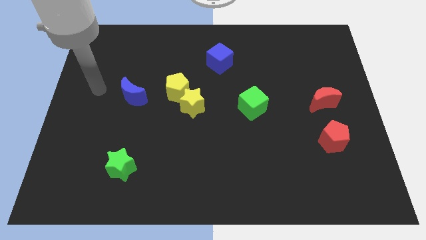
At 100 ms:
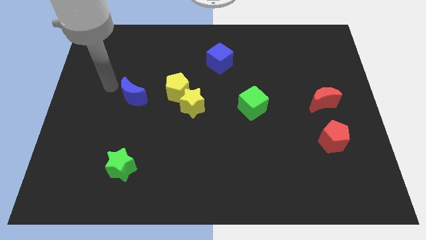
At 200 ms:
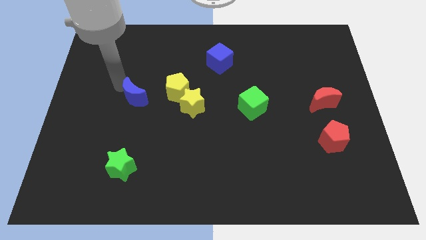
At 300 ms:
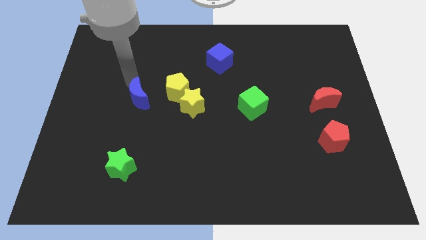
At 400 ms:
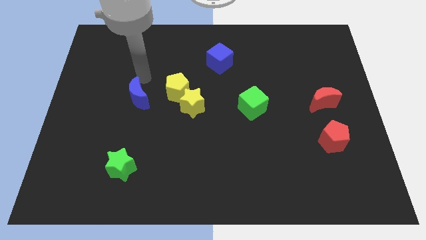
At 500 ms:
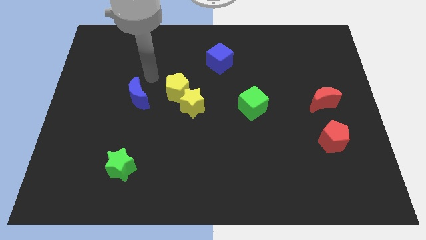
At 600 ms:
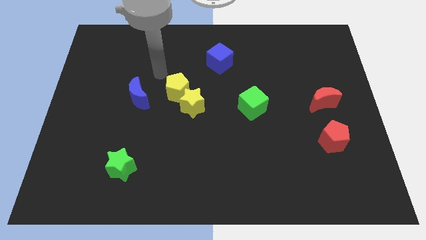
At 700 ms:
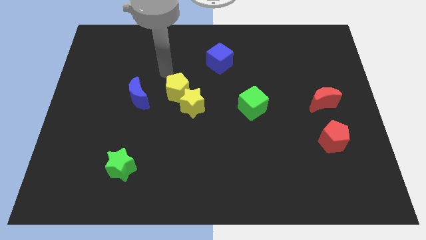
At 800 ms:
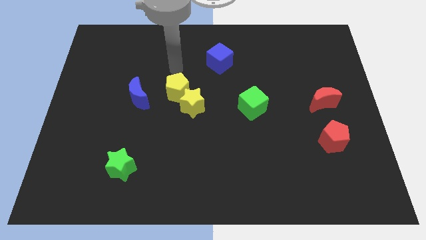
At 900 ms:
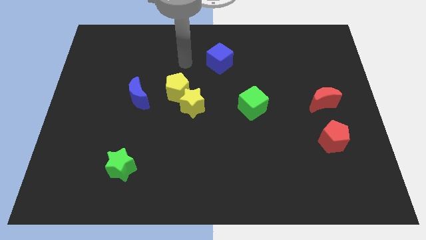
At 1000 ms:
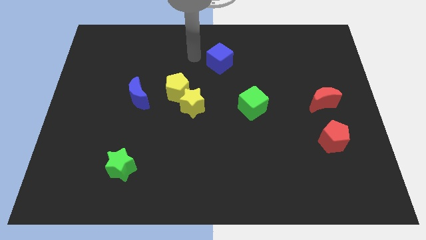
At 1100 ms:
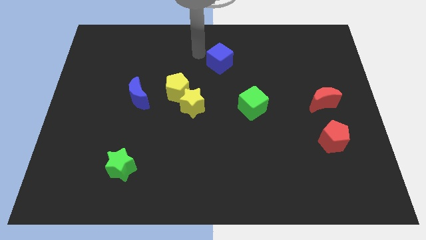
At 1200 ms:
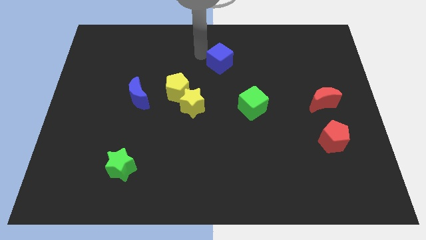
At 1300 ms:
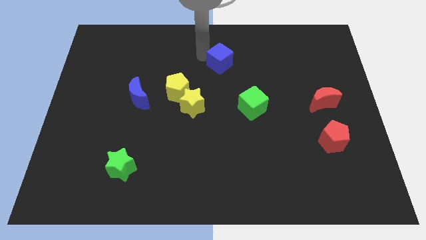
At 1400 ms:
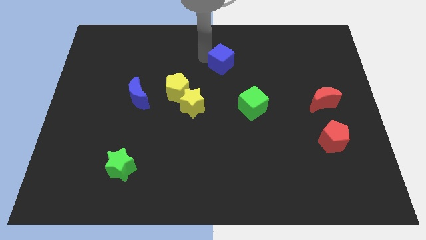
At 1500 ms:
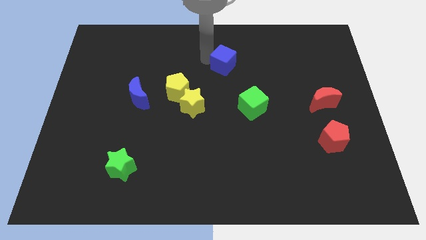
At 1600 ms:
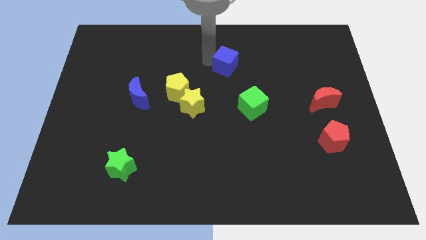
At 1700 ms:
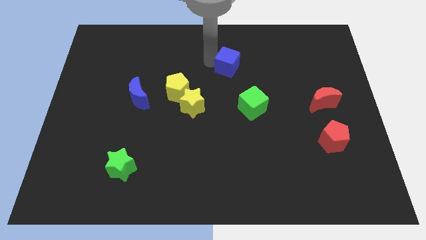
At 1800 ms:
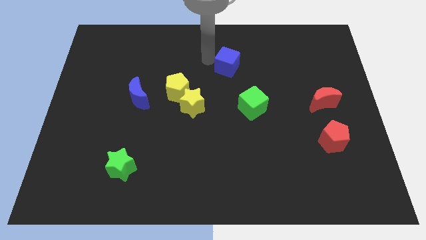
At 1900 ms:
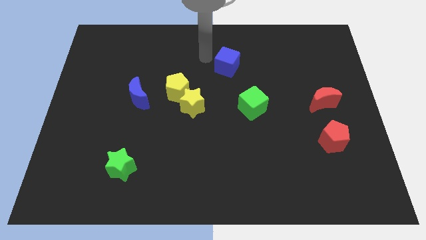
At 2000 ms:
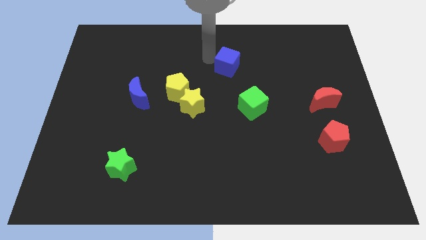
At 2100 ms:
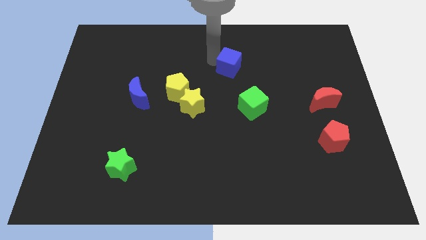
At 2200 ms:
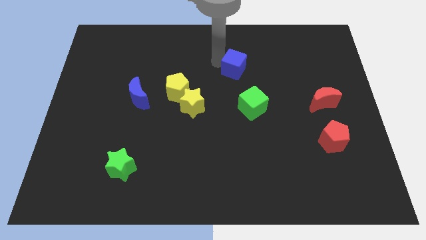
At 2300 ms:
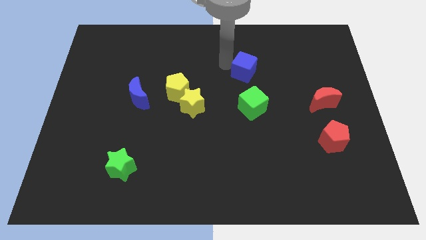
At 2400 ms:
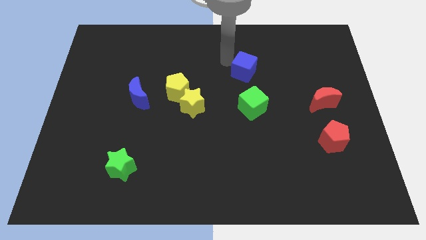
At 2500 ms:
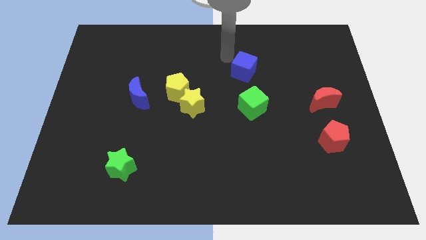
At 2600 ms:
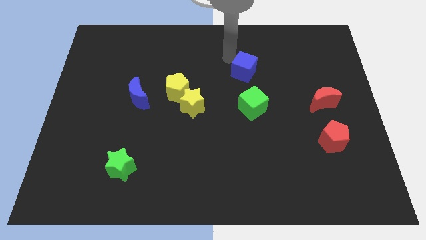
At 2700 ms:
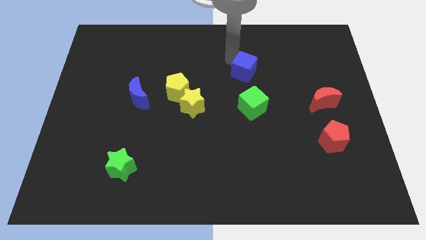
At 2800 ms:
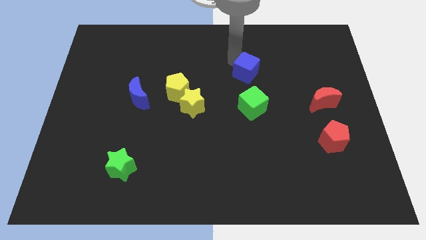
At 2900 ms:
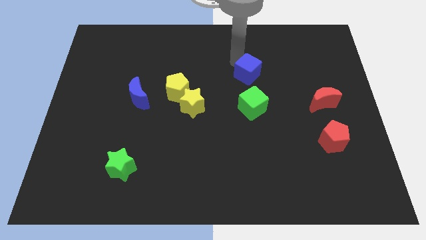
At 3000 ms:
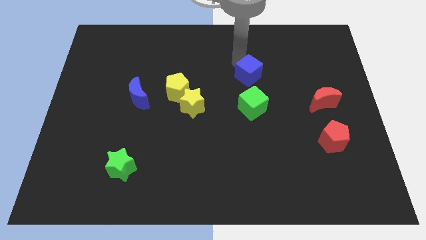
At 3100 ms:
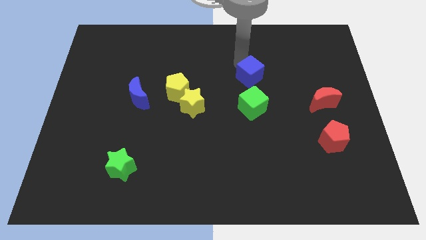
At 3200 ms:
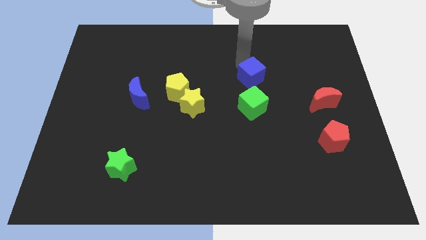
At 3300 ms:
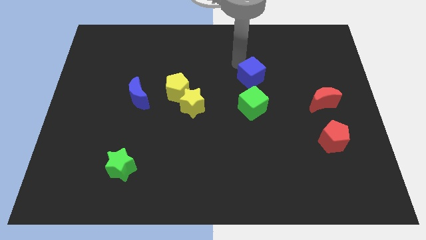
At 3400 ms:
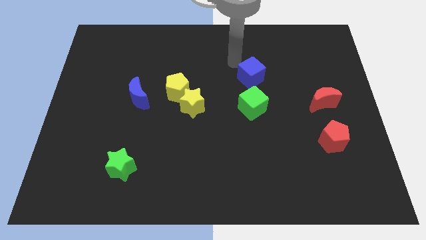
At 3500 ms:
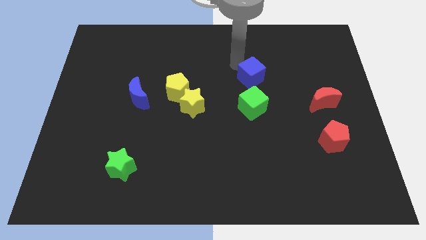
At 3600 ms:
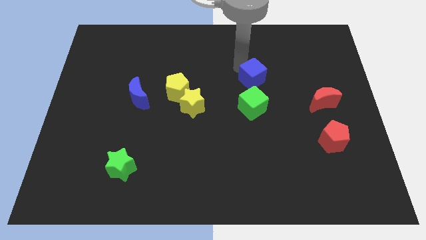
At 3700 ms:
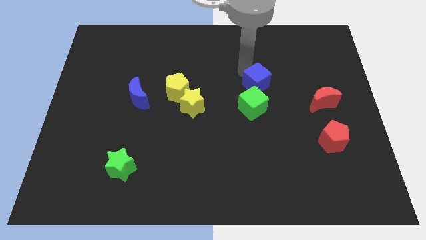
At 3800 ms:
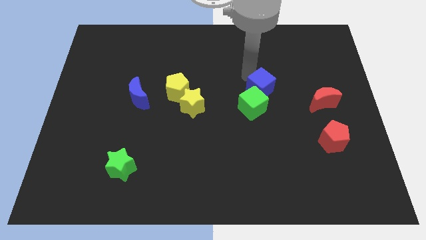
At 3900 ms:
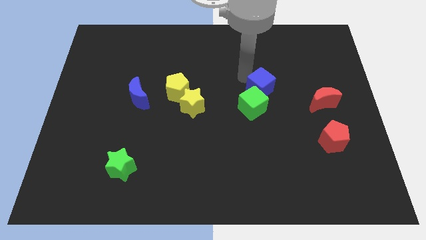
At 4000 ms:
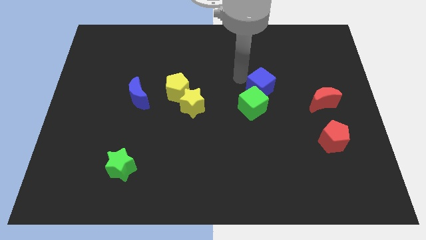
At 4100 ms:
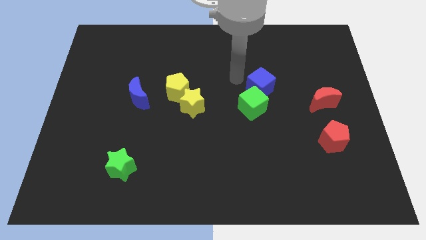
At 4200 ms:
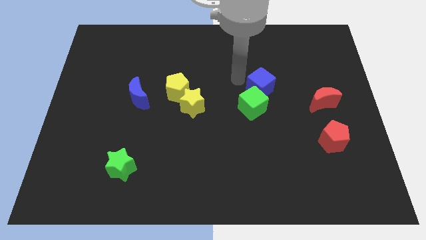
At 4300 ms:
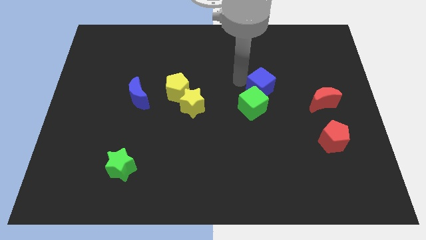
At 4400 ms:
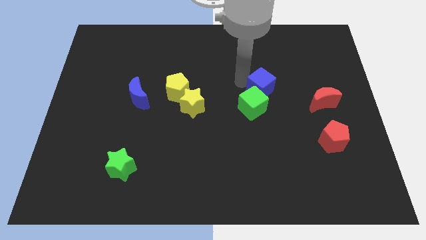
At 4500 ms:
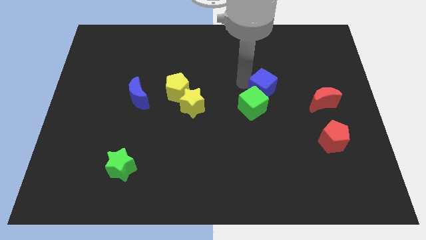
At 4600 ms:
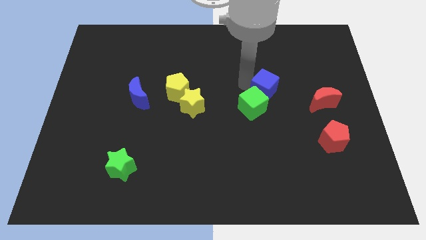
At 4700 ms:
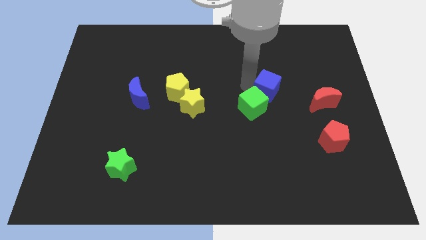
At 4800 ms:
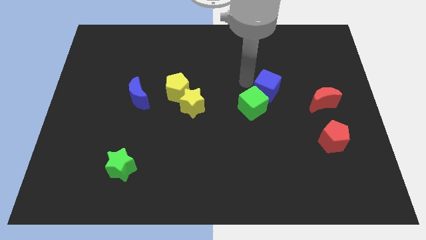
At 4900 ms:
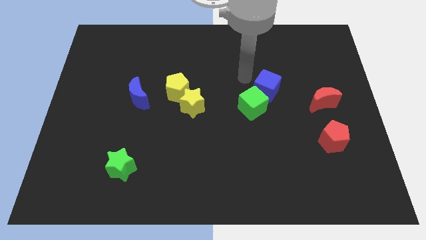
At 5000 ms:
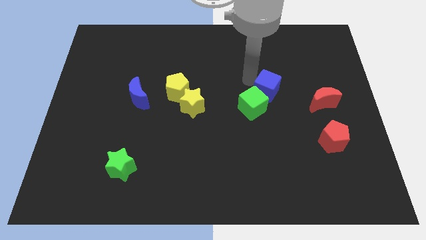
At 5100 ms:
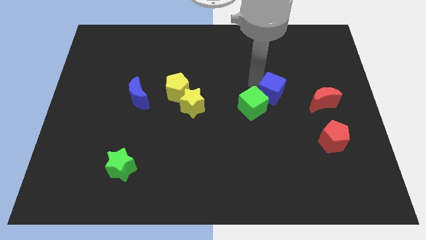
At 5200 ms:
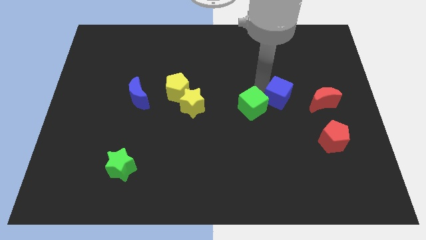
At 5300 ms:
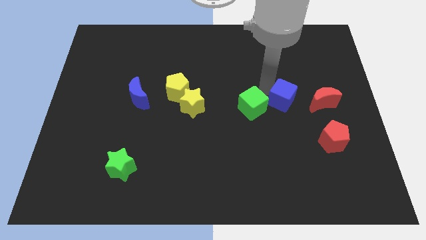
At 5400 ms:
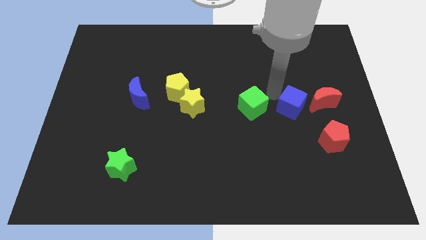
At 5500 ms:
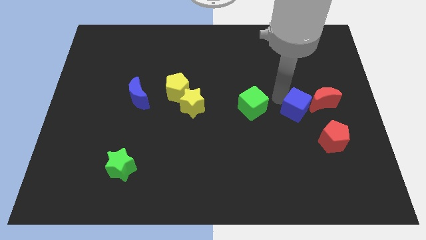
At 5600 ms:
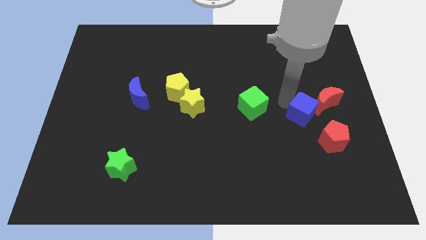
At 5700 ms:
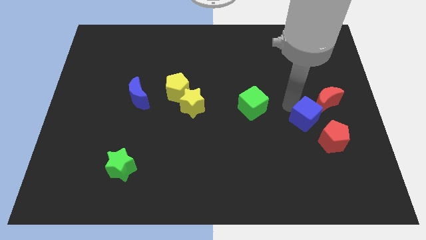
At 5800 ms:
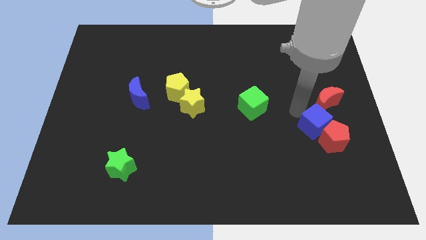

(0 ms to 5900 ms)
move the blue cube next to the red pentagon

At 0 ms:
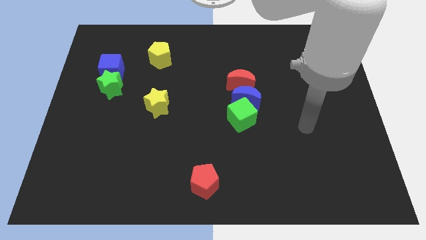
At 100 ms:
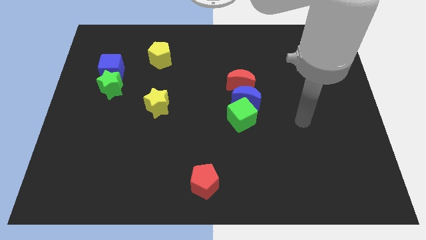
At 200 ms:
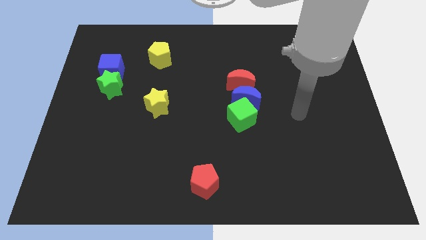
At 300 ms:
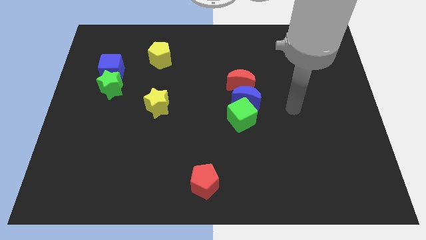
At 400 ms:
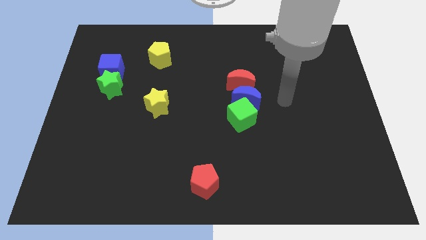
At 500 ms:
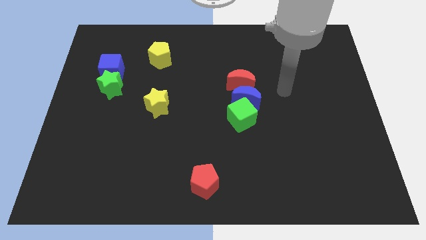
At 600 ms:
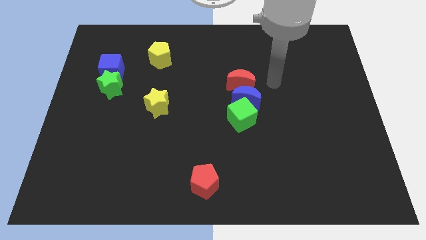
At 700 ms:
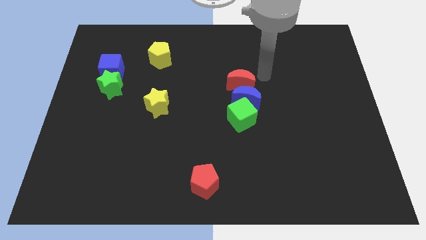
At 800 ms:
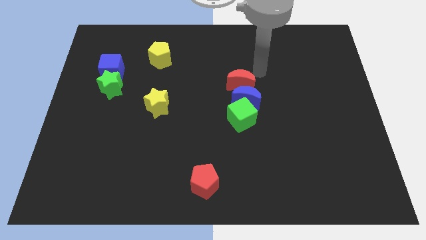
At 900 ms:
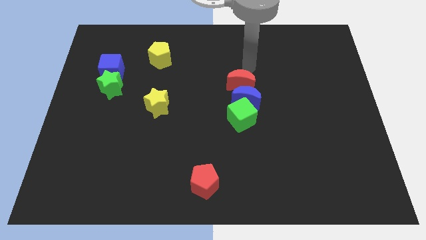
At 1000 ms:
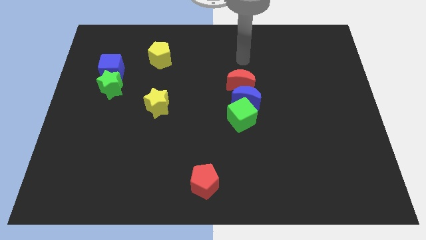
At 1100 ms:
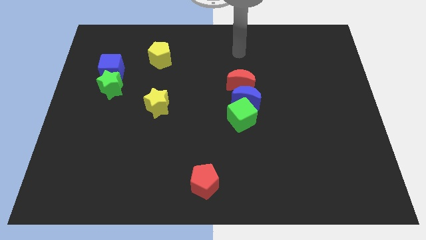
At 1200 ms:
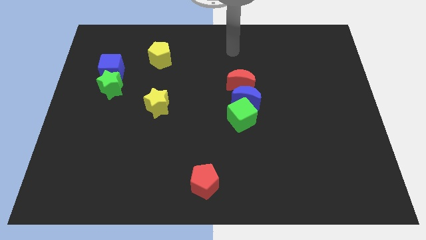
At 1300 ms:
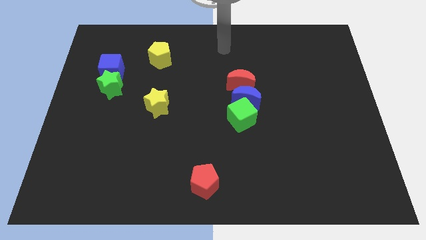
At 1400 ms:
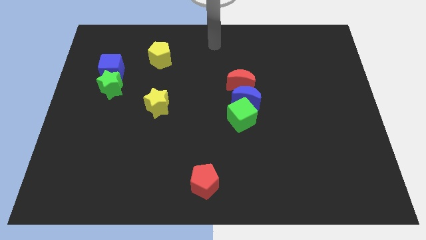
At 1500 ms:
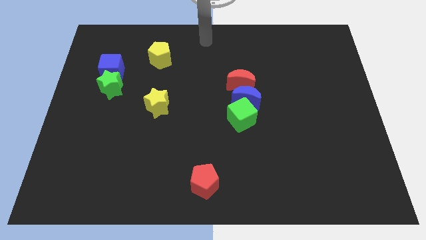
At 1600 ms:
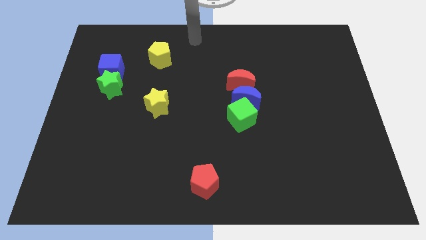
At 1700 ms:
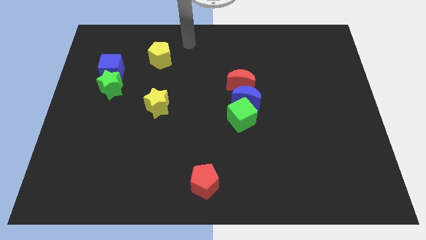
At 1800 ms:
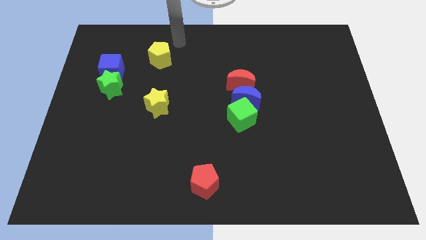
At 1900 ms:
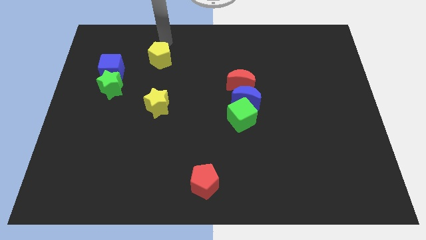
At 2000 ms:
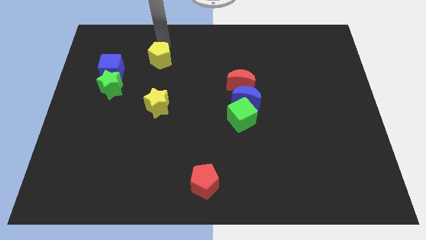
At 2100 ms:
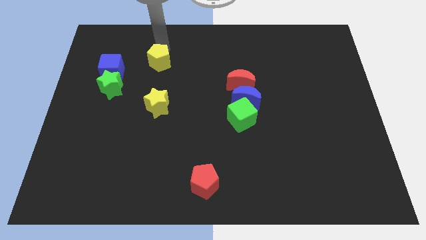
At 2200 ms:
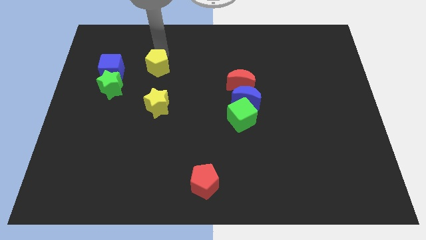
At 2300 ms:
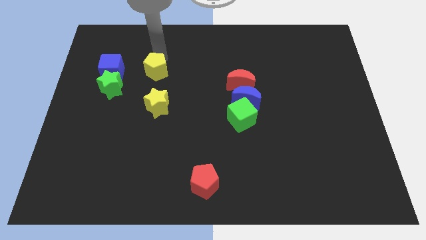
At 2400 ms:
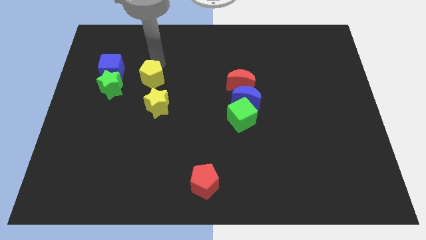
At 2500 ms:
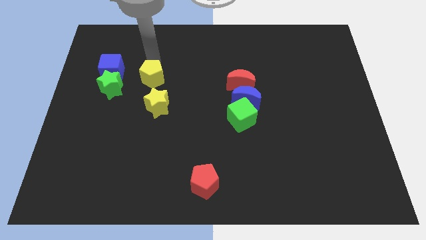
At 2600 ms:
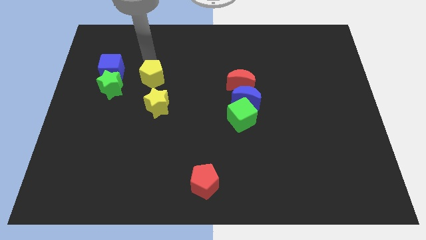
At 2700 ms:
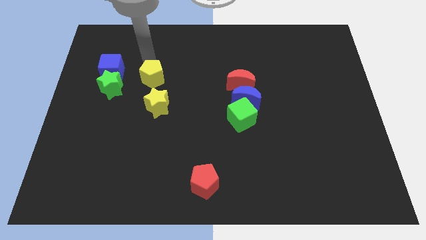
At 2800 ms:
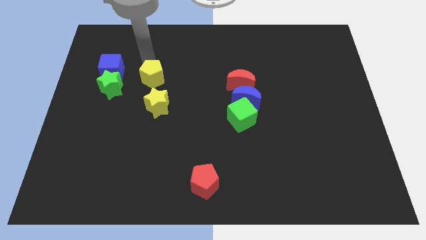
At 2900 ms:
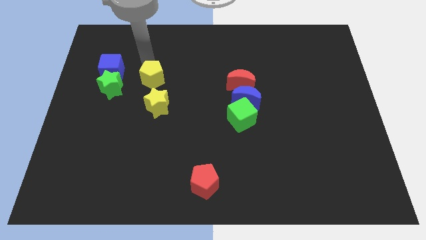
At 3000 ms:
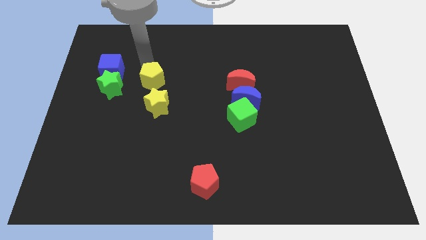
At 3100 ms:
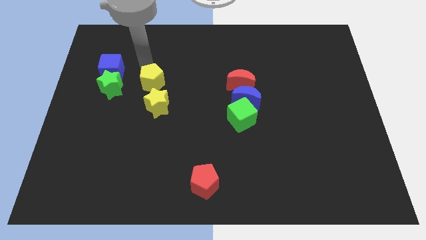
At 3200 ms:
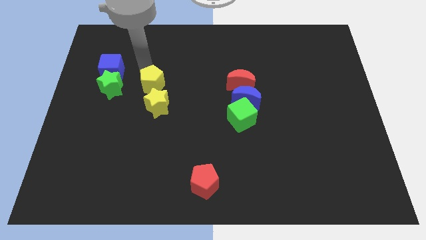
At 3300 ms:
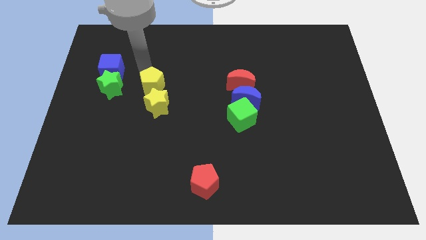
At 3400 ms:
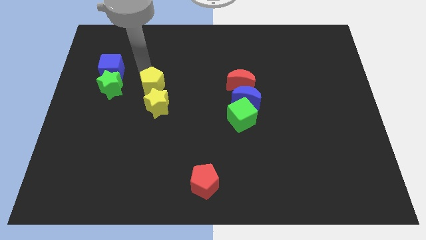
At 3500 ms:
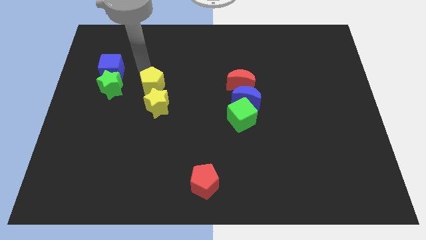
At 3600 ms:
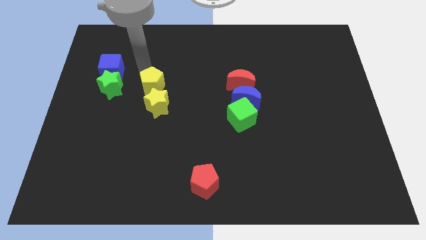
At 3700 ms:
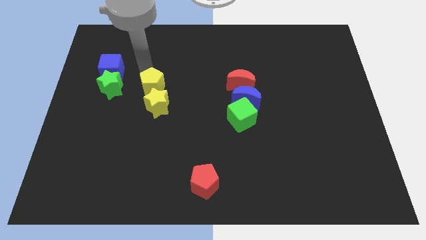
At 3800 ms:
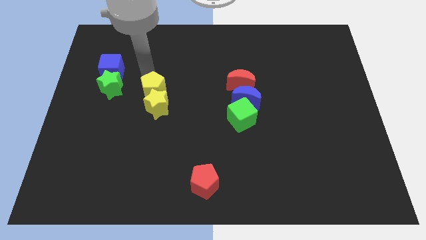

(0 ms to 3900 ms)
slide the yellow pentagon close to the yellow star
